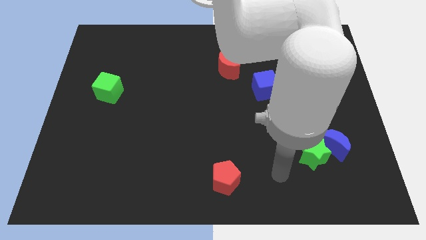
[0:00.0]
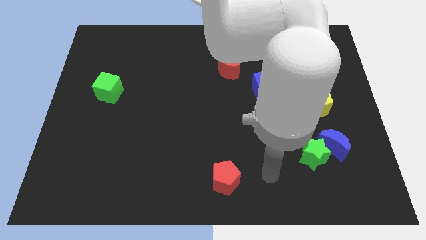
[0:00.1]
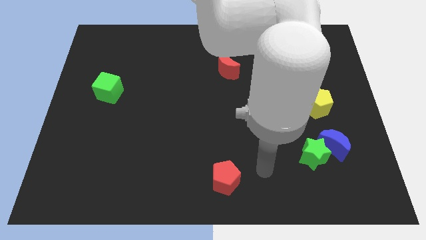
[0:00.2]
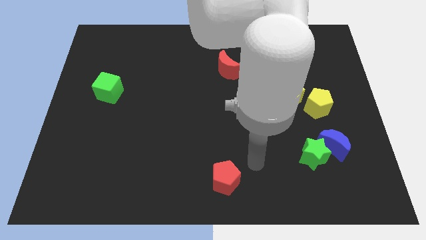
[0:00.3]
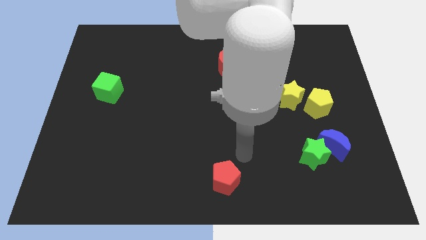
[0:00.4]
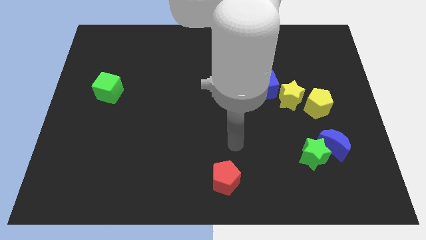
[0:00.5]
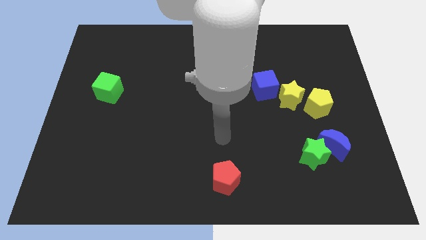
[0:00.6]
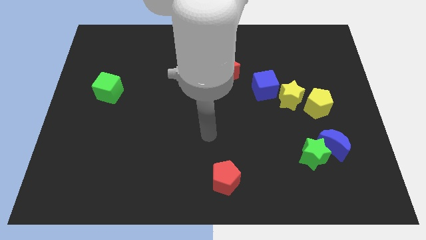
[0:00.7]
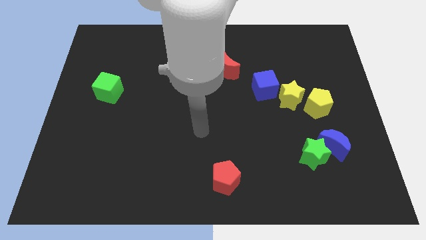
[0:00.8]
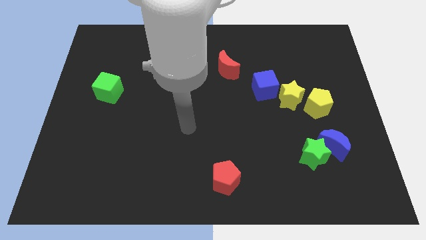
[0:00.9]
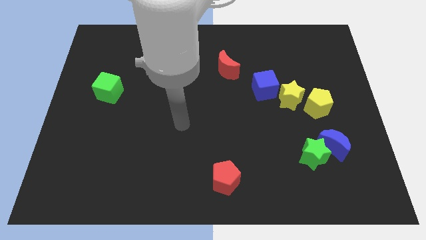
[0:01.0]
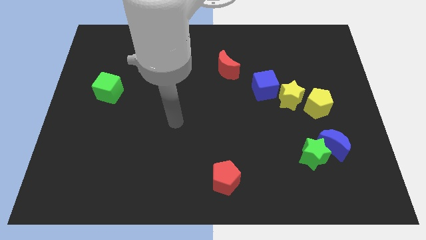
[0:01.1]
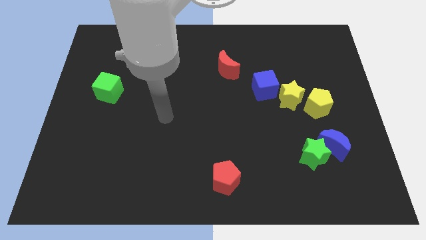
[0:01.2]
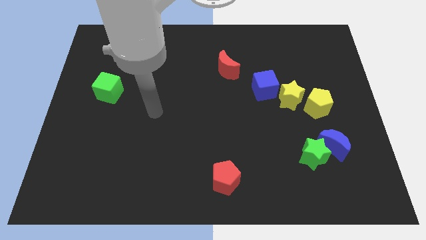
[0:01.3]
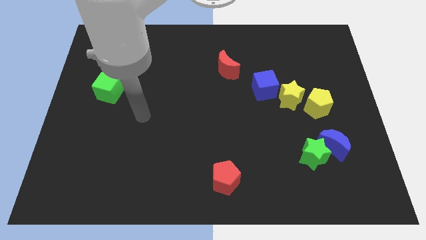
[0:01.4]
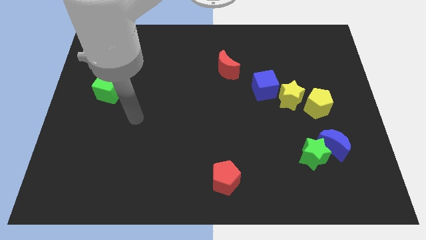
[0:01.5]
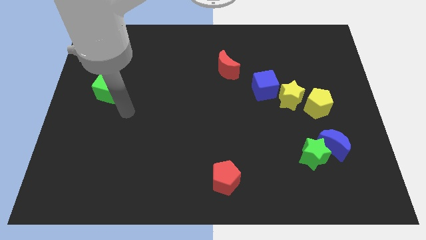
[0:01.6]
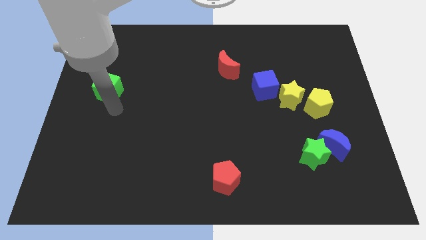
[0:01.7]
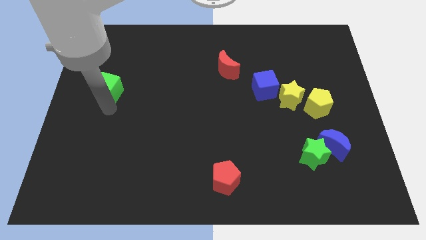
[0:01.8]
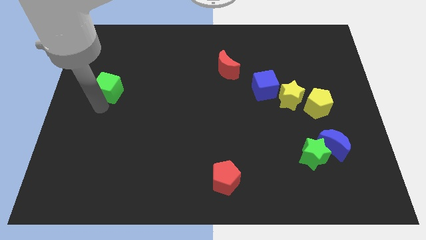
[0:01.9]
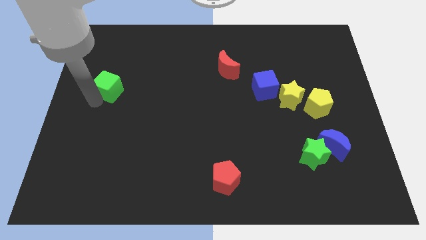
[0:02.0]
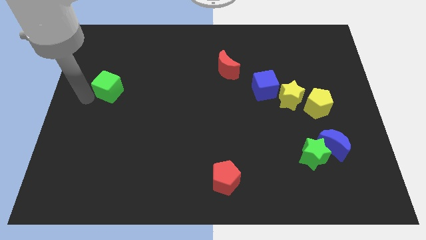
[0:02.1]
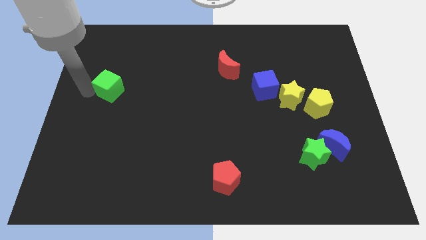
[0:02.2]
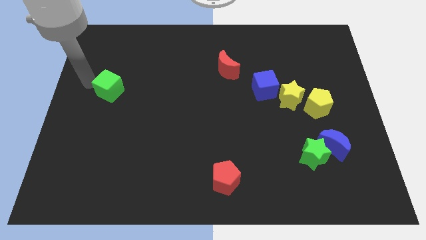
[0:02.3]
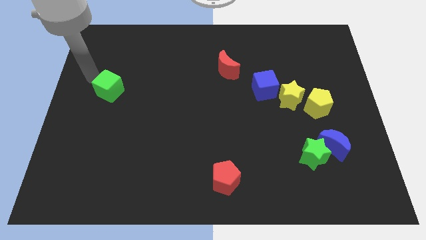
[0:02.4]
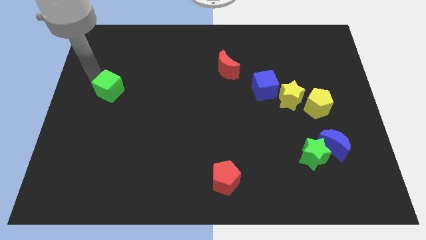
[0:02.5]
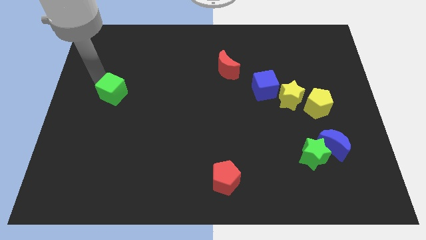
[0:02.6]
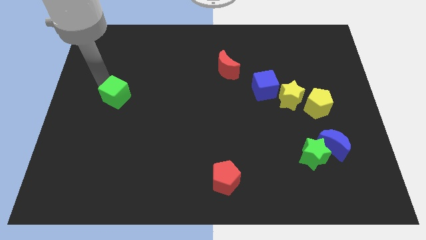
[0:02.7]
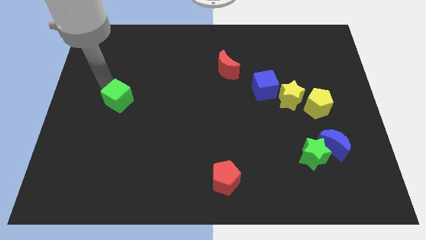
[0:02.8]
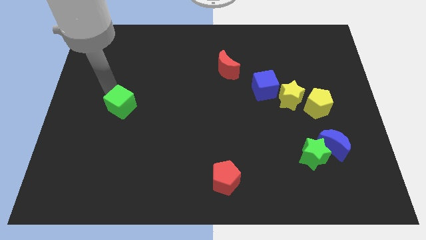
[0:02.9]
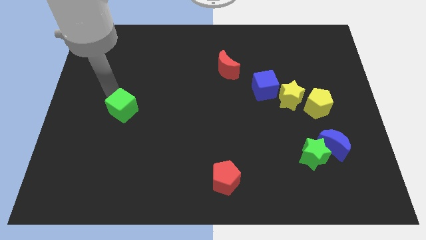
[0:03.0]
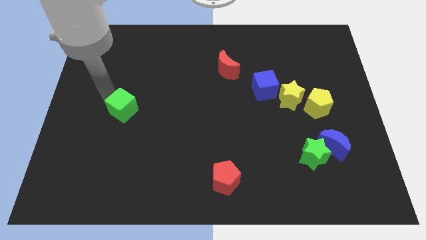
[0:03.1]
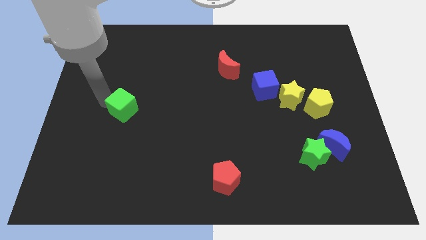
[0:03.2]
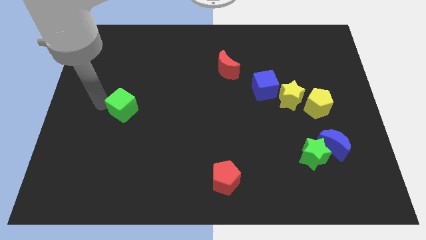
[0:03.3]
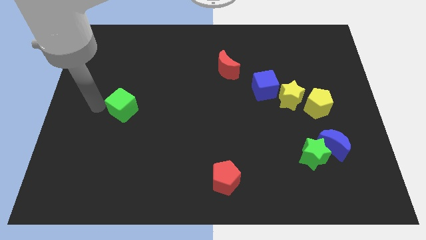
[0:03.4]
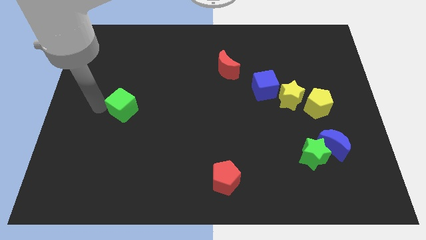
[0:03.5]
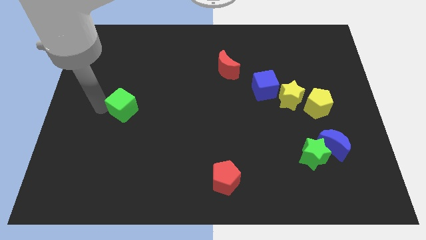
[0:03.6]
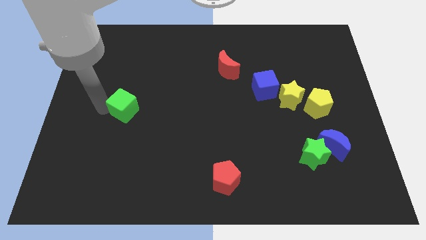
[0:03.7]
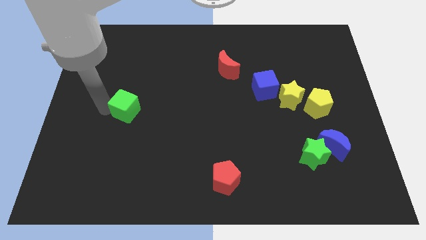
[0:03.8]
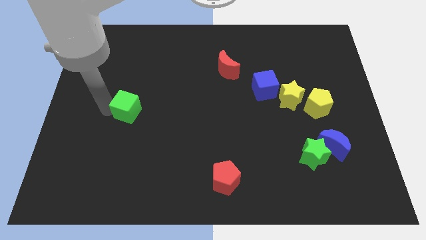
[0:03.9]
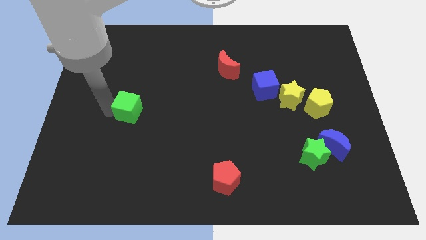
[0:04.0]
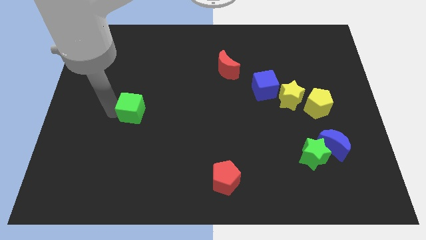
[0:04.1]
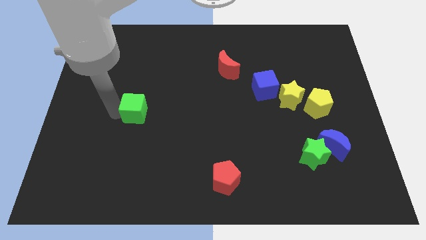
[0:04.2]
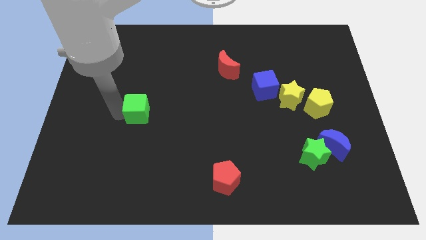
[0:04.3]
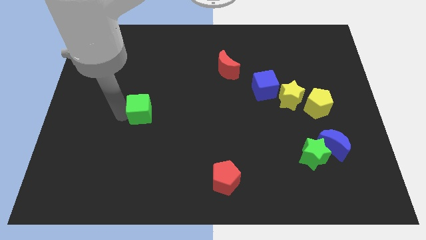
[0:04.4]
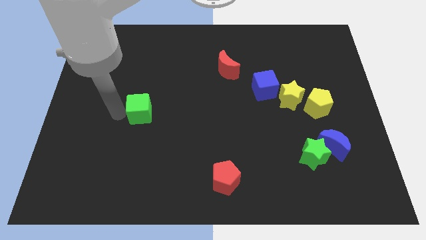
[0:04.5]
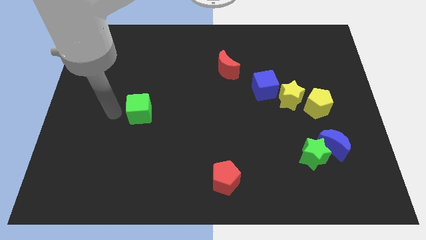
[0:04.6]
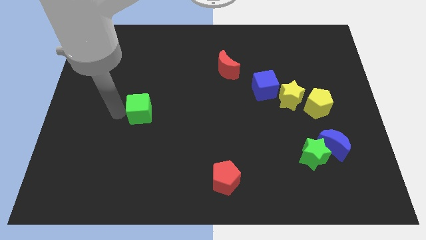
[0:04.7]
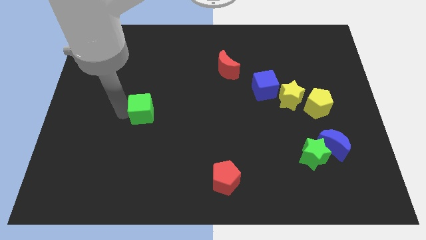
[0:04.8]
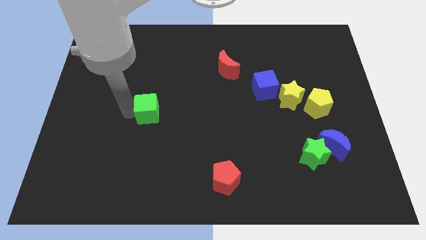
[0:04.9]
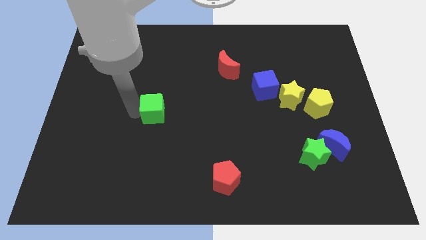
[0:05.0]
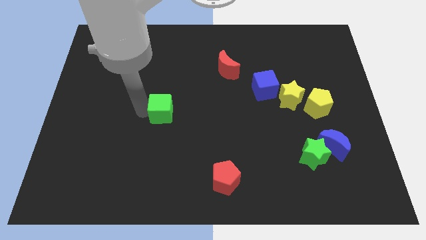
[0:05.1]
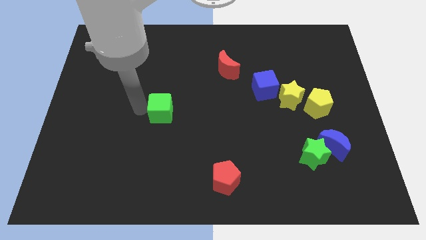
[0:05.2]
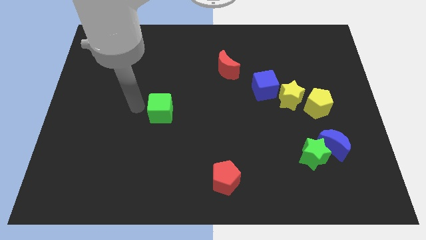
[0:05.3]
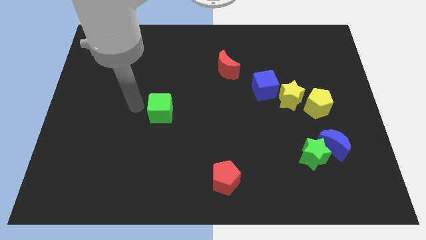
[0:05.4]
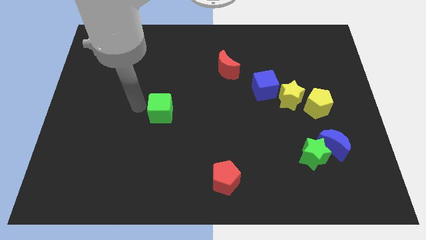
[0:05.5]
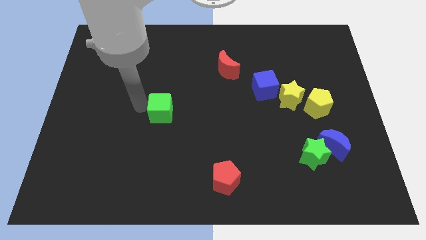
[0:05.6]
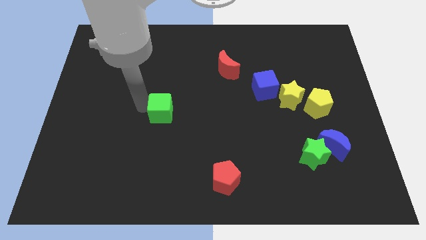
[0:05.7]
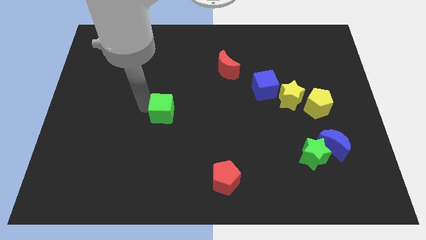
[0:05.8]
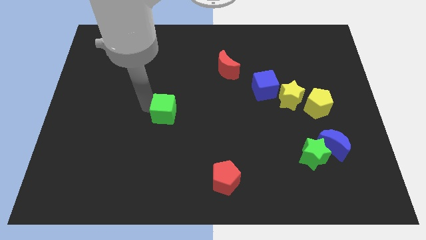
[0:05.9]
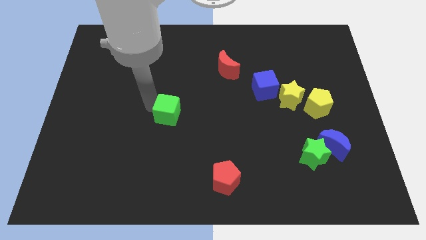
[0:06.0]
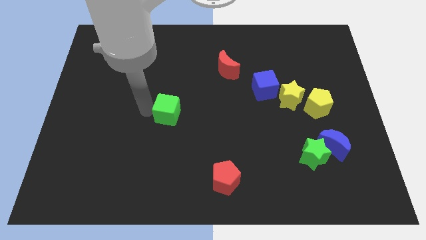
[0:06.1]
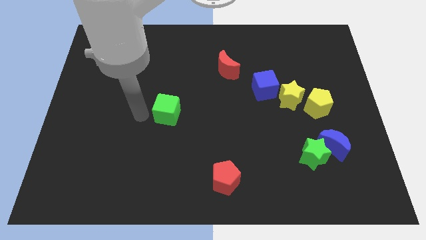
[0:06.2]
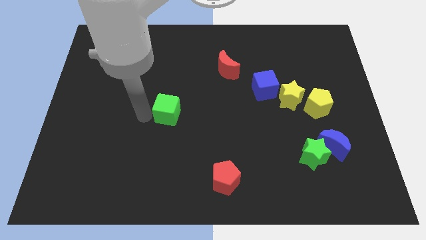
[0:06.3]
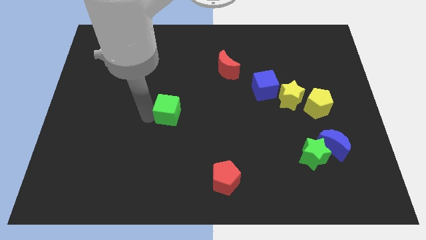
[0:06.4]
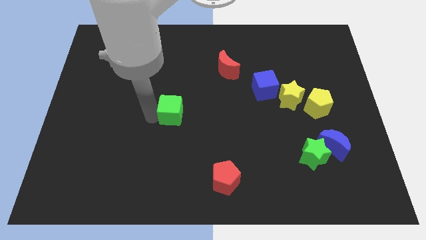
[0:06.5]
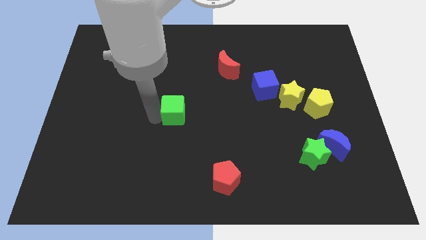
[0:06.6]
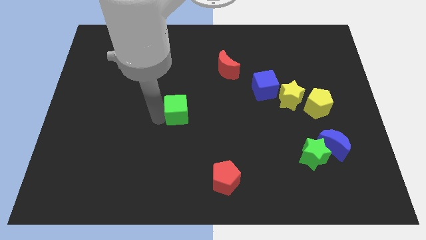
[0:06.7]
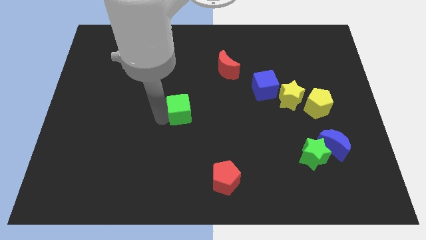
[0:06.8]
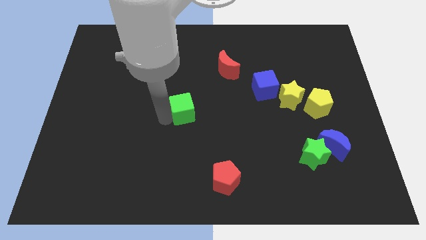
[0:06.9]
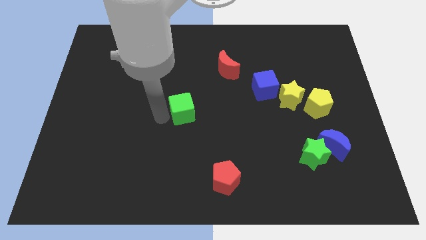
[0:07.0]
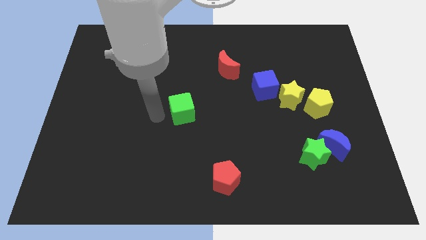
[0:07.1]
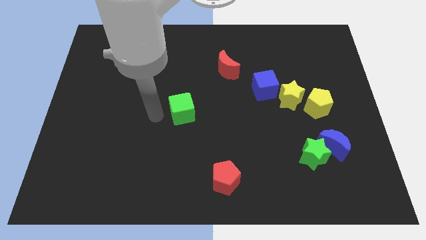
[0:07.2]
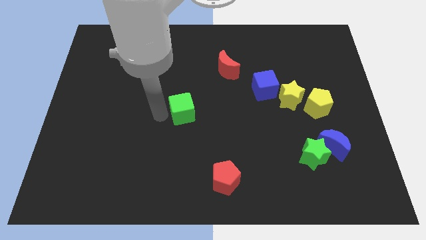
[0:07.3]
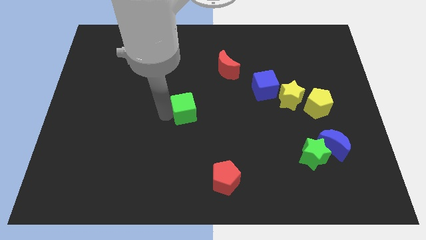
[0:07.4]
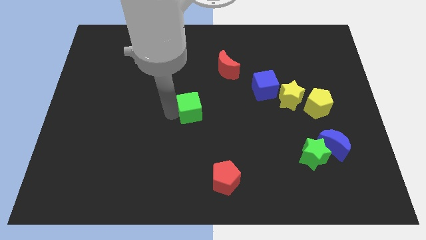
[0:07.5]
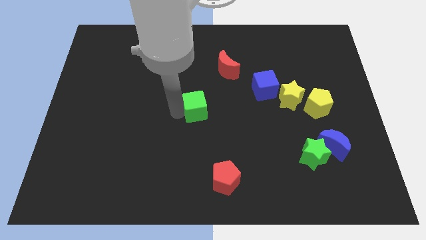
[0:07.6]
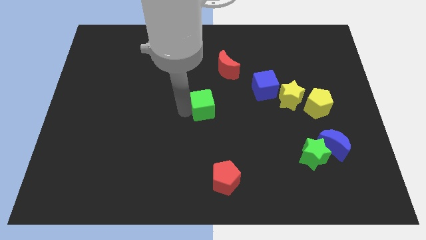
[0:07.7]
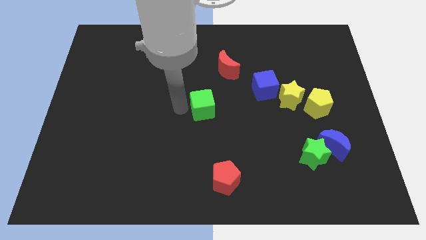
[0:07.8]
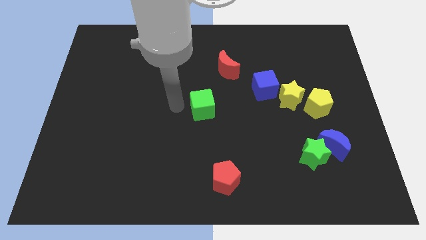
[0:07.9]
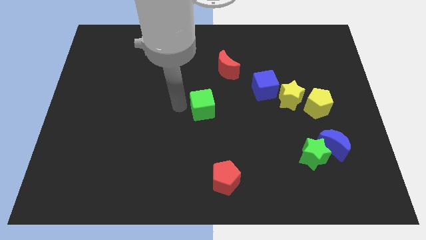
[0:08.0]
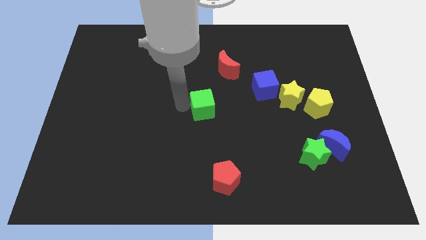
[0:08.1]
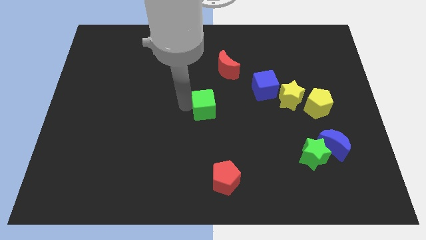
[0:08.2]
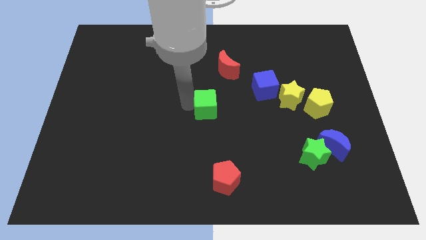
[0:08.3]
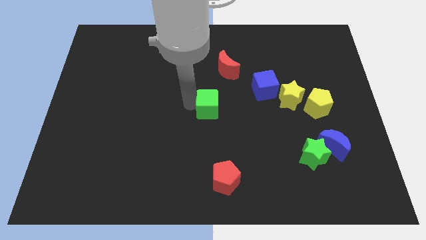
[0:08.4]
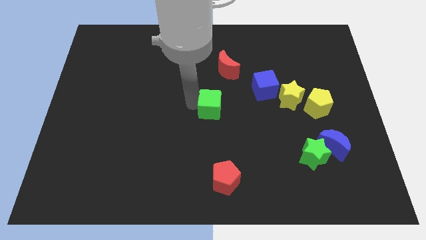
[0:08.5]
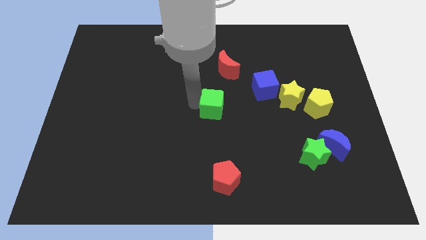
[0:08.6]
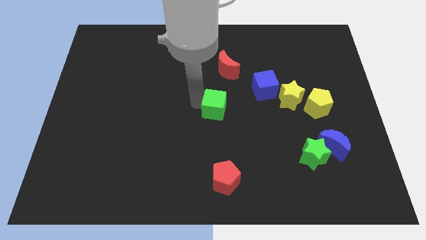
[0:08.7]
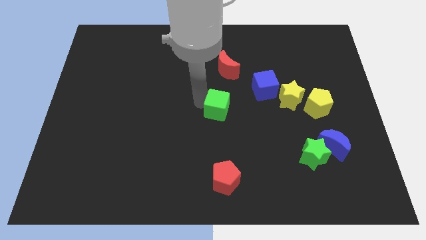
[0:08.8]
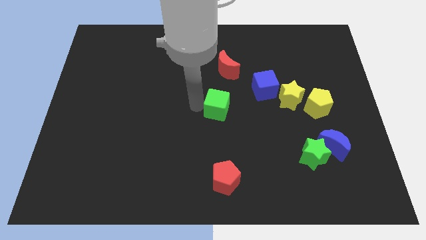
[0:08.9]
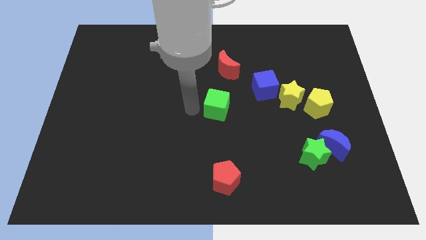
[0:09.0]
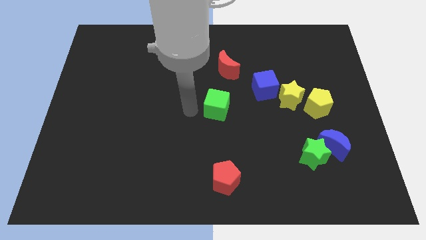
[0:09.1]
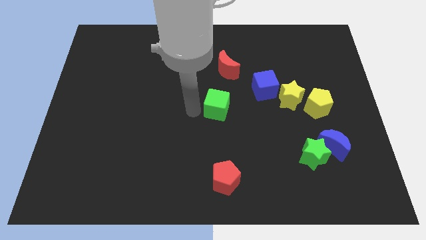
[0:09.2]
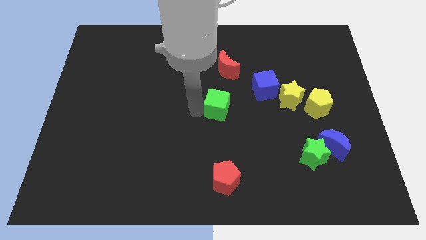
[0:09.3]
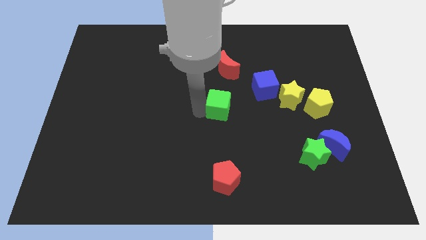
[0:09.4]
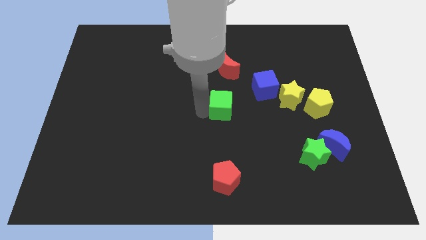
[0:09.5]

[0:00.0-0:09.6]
move the green cube diagonally down and to the left of the blue cube
